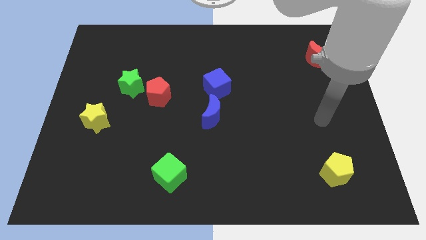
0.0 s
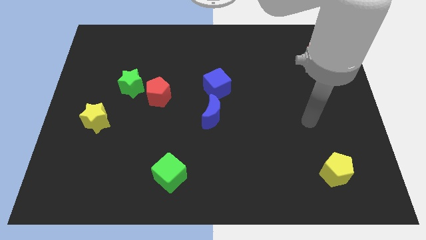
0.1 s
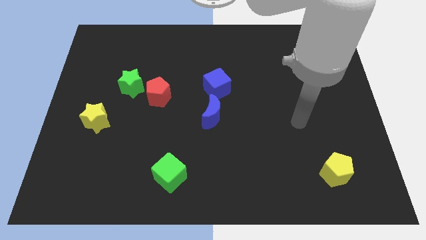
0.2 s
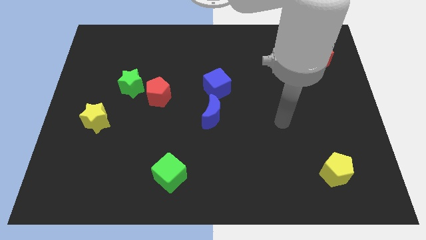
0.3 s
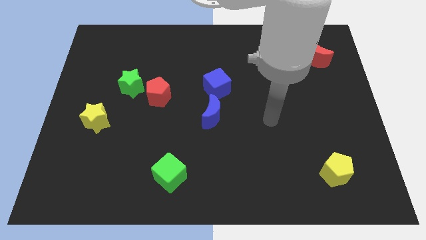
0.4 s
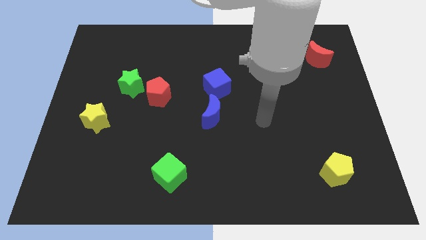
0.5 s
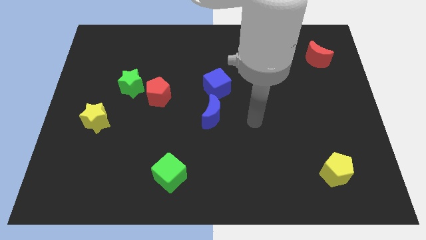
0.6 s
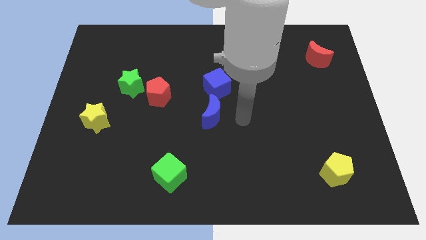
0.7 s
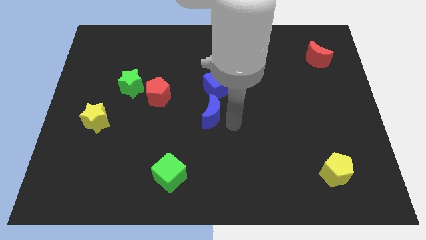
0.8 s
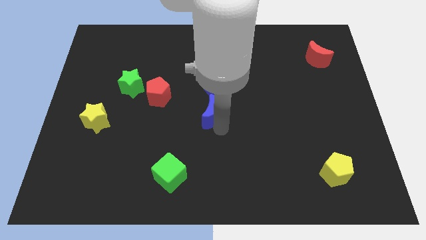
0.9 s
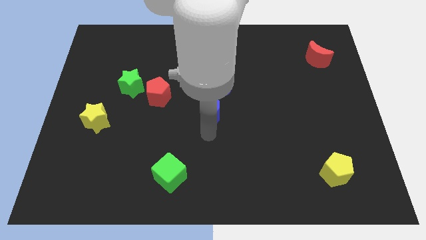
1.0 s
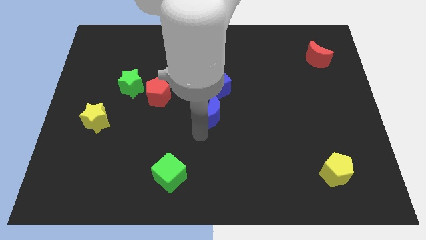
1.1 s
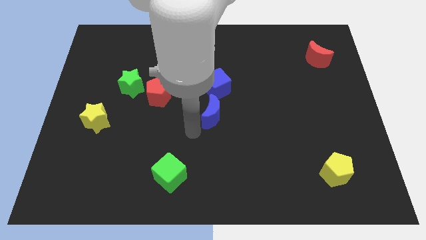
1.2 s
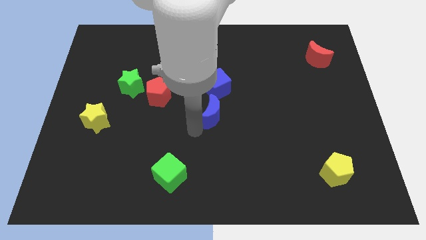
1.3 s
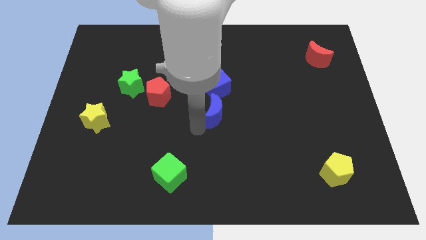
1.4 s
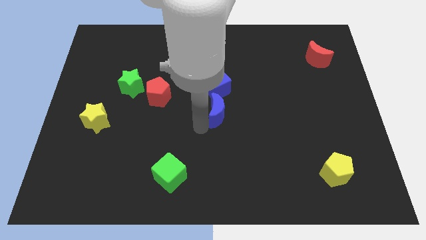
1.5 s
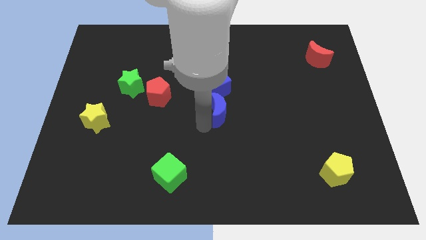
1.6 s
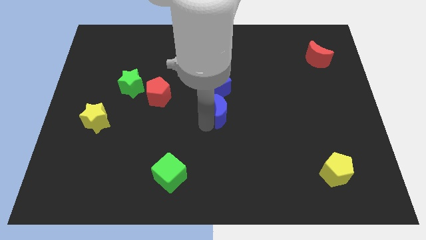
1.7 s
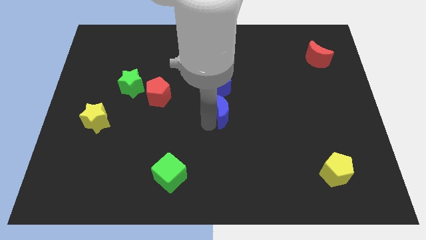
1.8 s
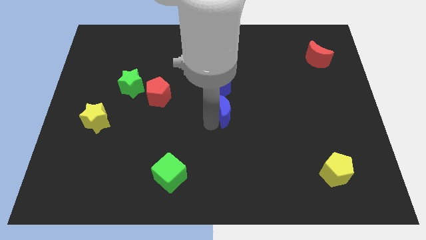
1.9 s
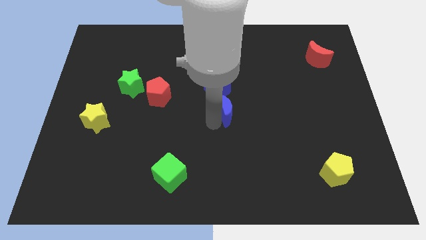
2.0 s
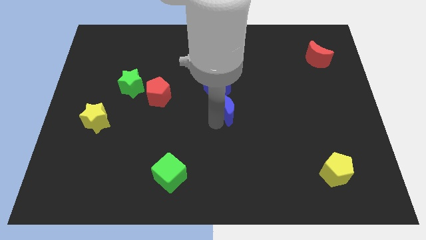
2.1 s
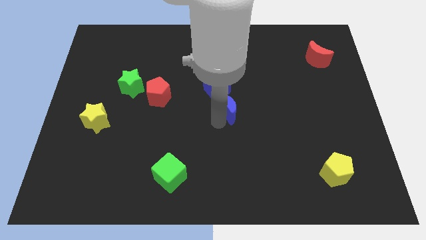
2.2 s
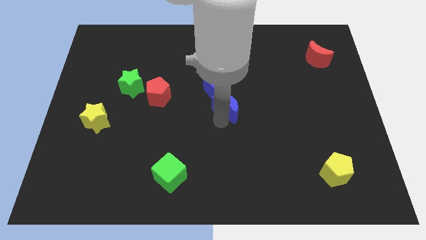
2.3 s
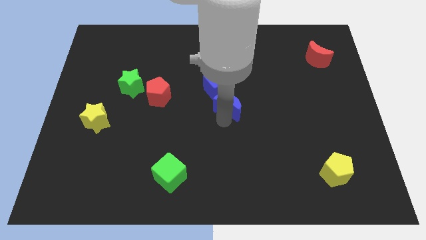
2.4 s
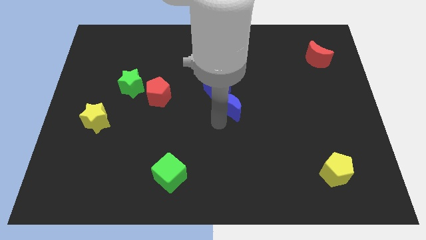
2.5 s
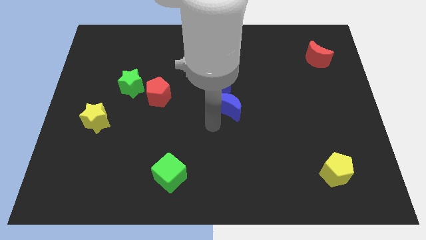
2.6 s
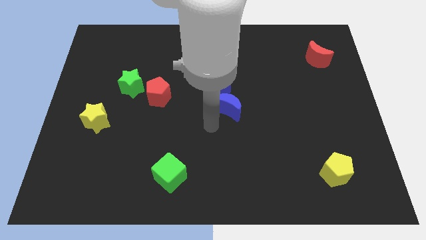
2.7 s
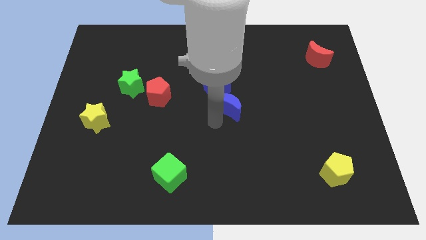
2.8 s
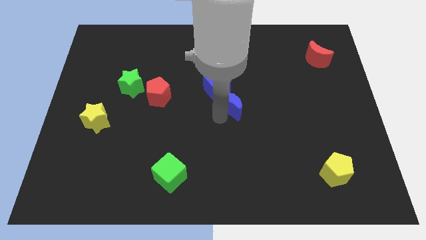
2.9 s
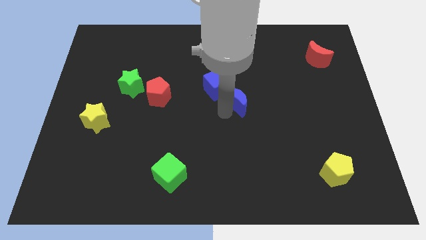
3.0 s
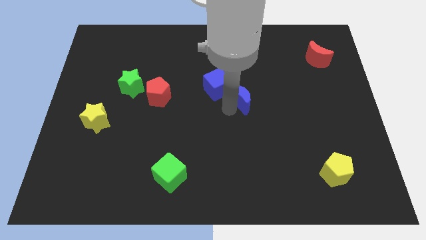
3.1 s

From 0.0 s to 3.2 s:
push the blue moon a little bit upwards and right diagonally

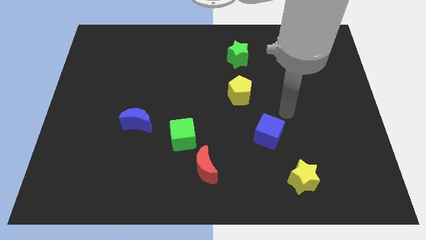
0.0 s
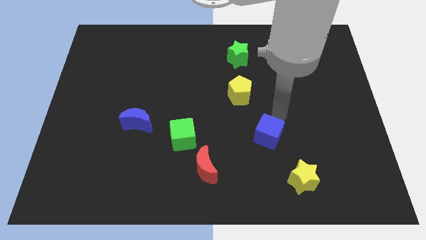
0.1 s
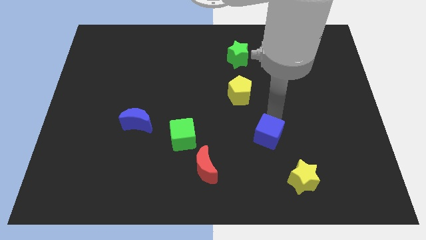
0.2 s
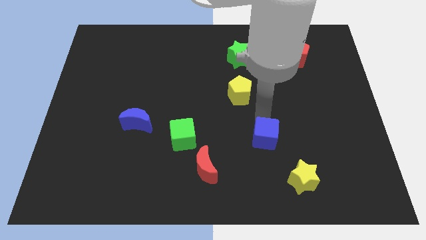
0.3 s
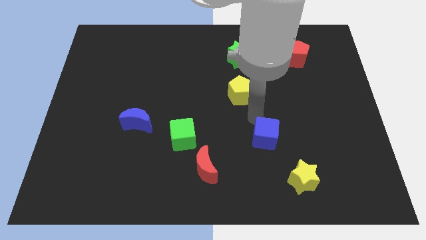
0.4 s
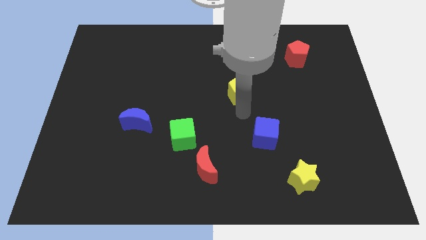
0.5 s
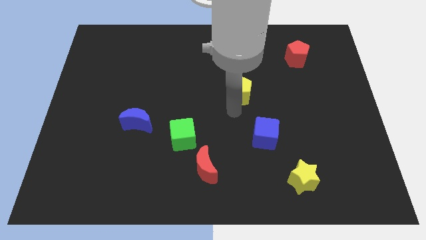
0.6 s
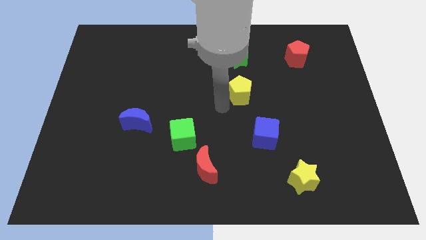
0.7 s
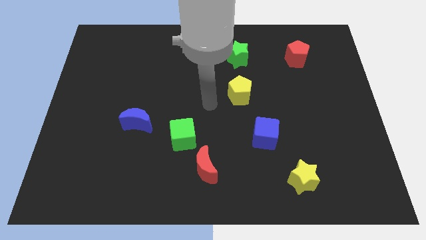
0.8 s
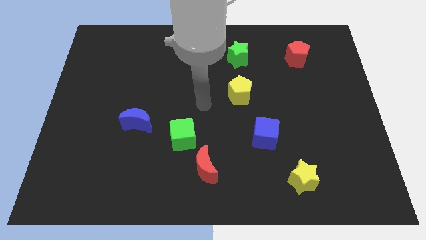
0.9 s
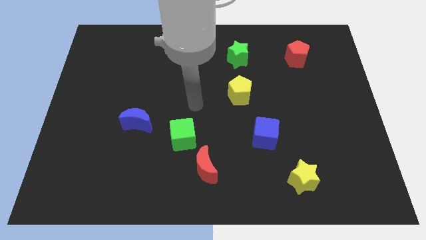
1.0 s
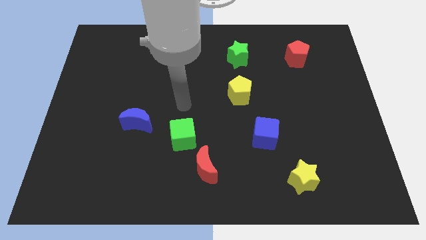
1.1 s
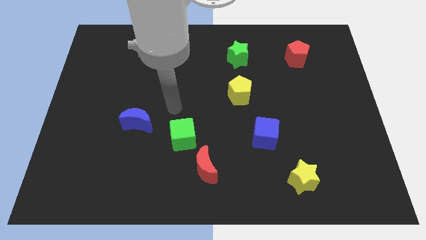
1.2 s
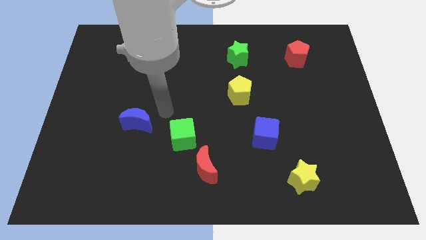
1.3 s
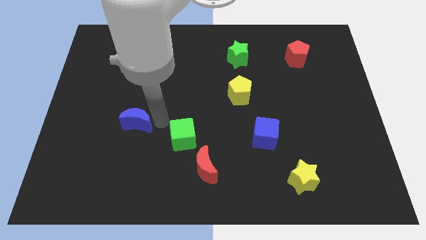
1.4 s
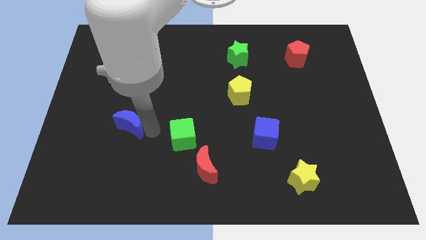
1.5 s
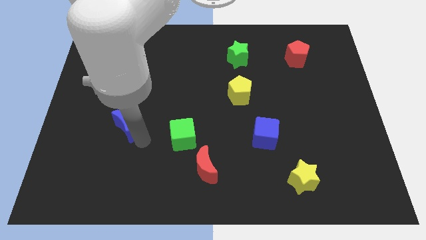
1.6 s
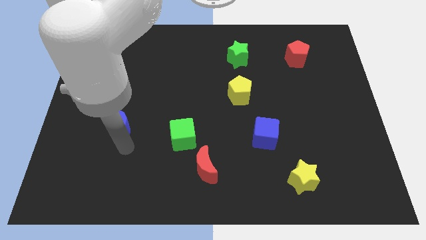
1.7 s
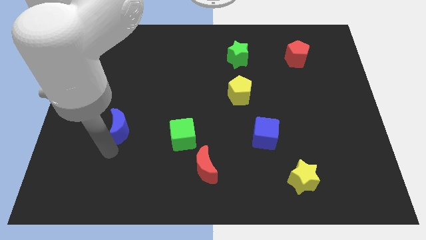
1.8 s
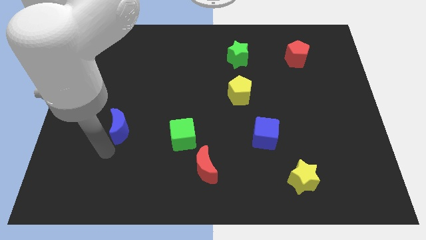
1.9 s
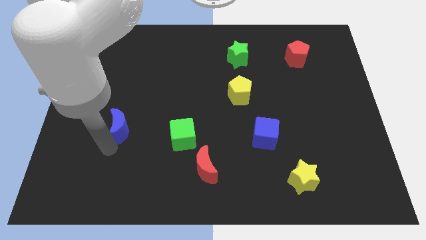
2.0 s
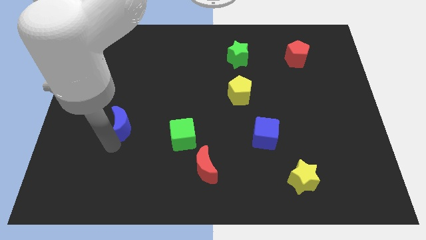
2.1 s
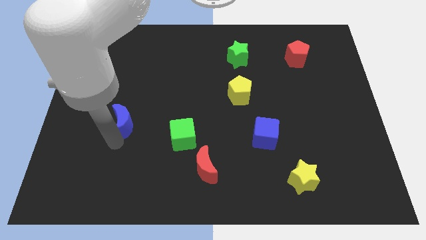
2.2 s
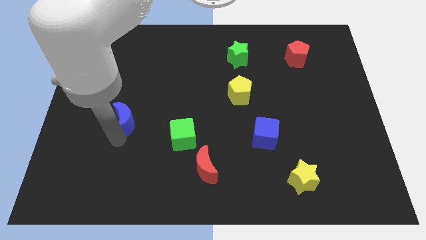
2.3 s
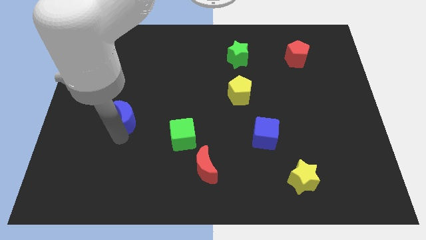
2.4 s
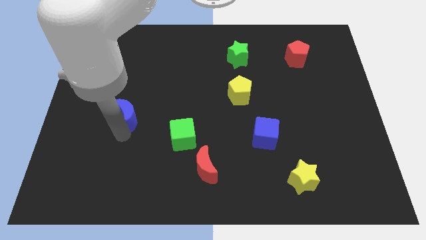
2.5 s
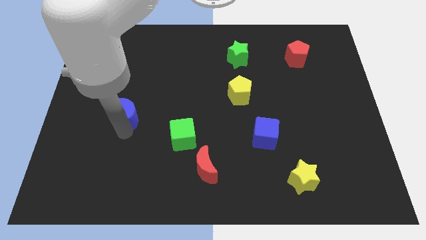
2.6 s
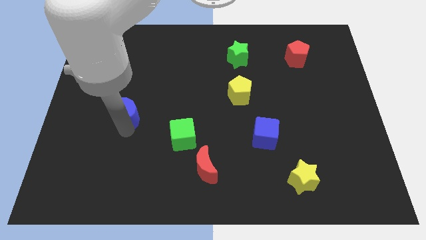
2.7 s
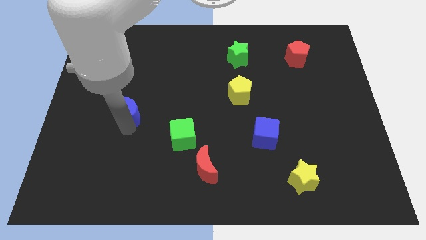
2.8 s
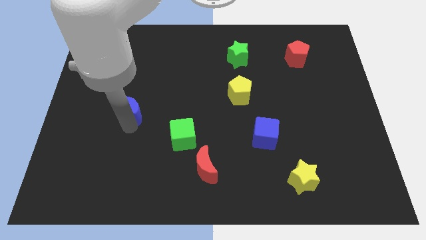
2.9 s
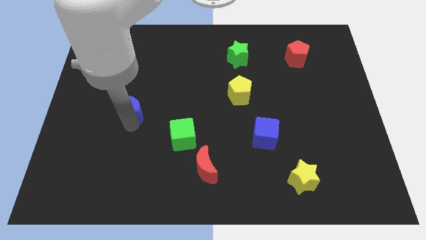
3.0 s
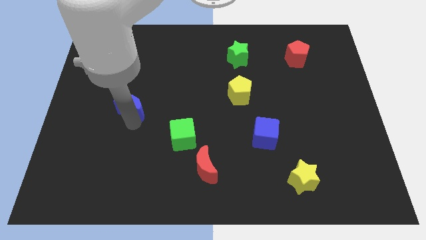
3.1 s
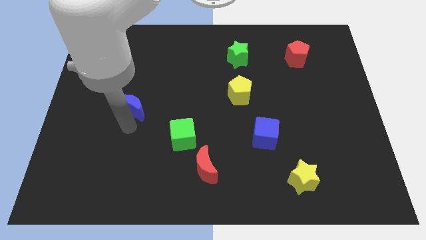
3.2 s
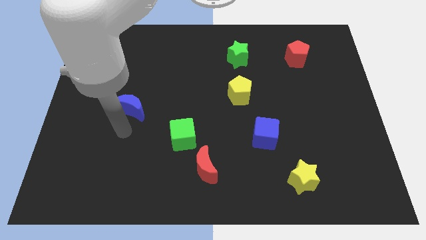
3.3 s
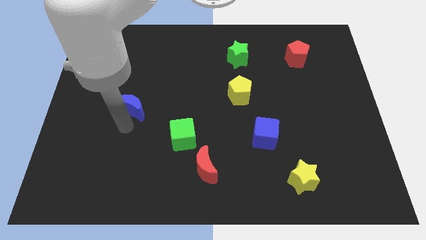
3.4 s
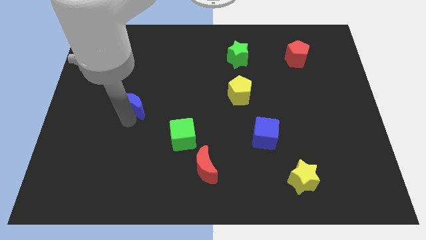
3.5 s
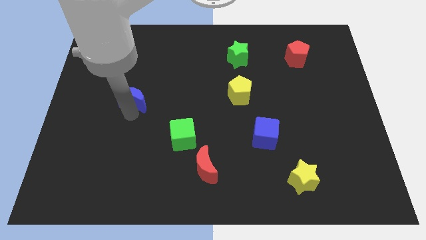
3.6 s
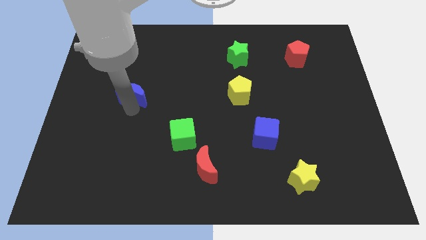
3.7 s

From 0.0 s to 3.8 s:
push the blue moon a little up

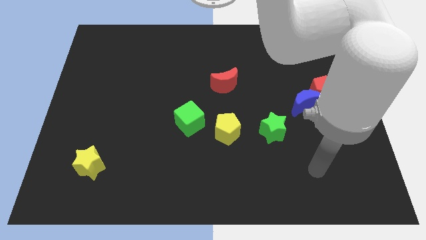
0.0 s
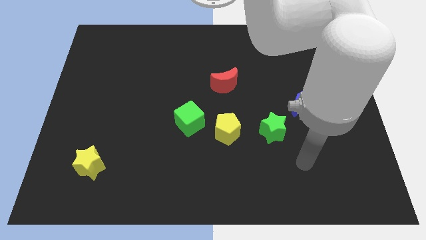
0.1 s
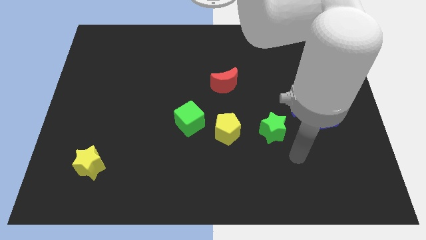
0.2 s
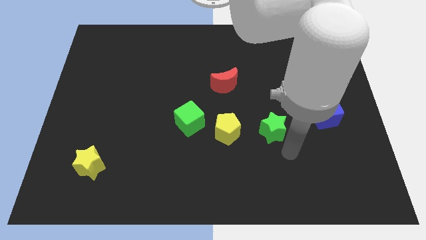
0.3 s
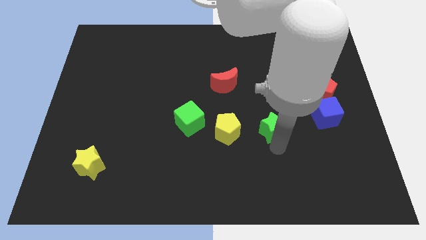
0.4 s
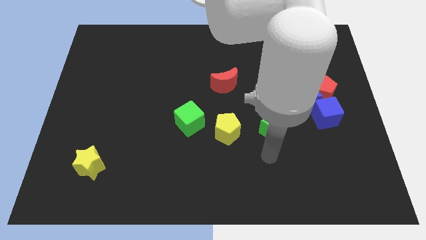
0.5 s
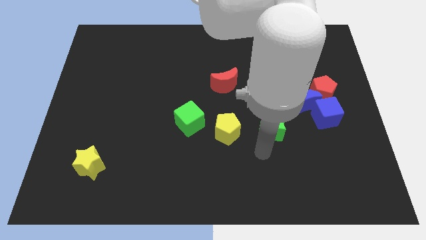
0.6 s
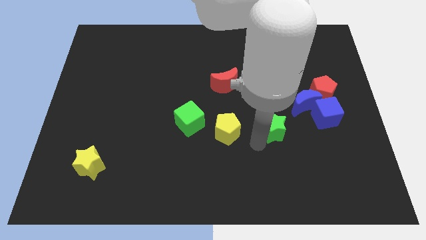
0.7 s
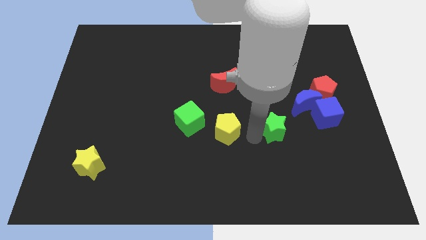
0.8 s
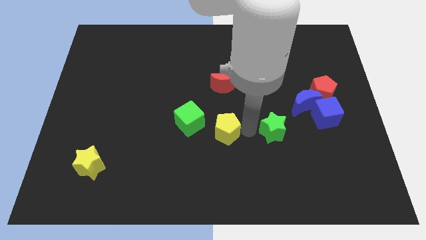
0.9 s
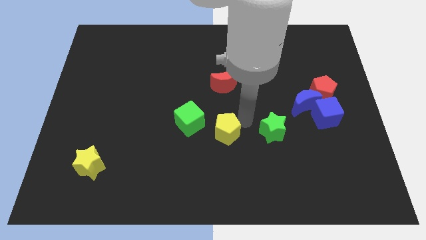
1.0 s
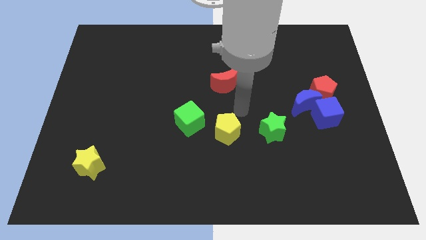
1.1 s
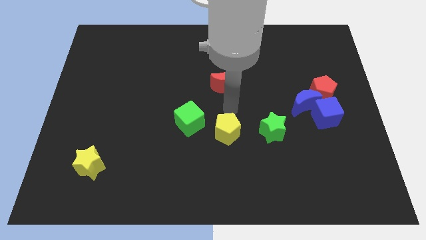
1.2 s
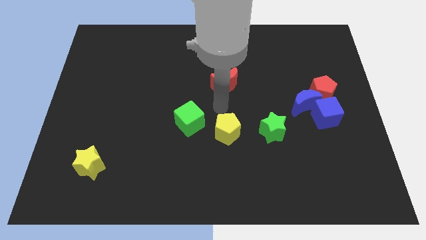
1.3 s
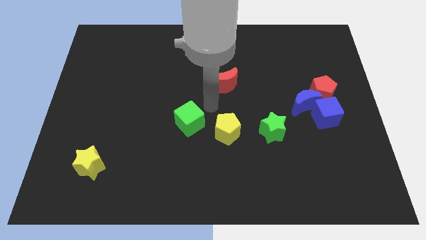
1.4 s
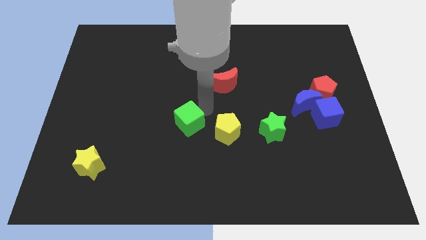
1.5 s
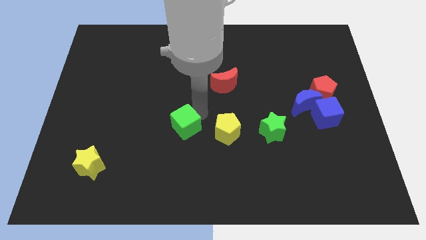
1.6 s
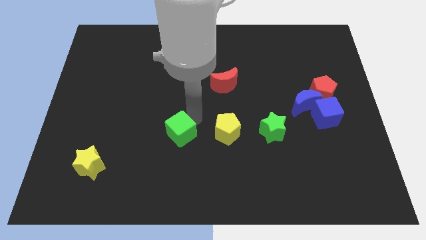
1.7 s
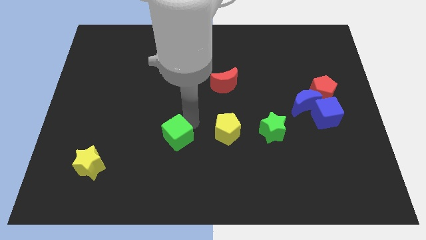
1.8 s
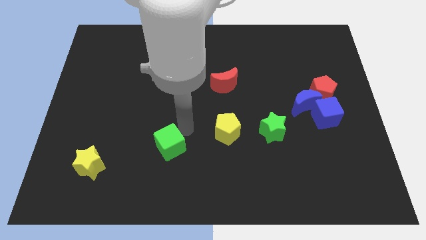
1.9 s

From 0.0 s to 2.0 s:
move the green cube down and to the left diagonally a little bit
